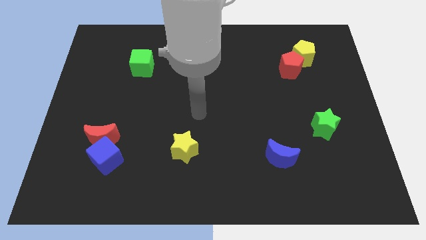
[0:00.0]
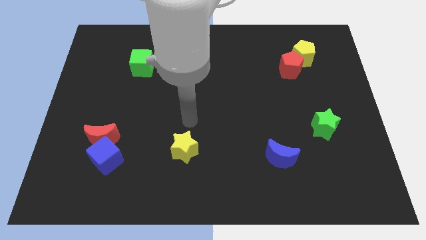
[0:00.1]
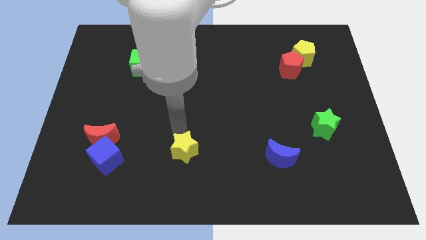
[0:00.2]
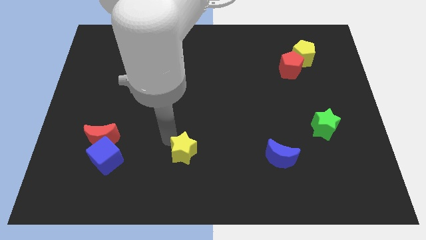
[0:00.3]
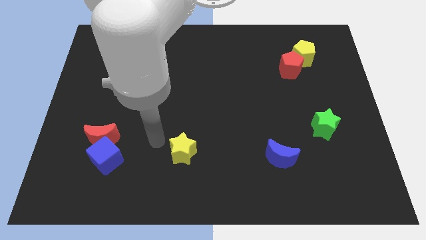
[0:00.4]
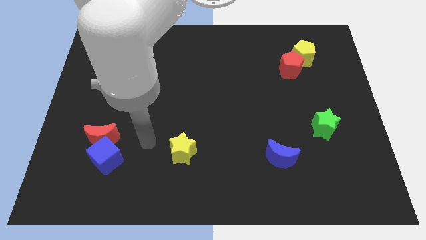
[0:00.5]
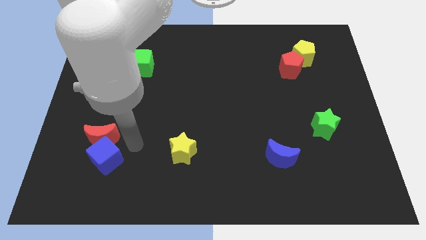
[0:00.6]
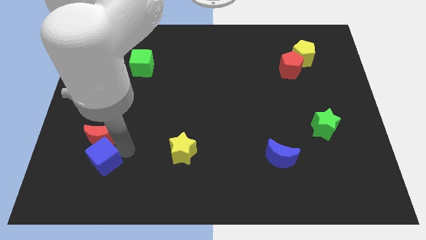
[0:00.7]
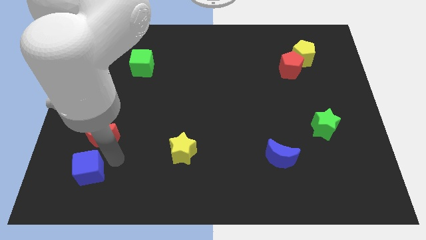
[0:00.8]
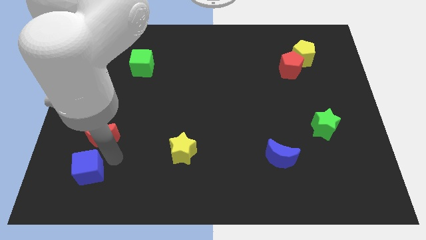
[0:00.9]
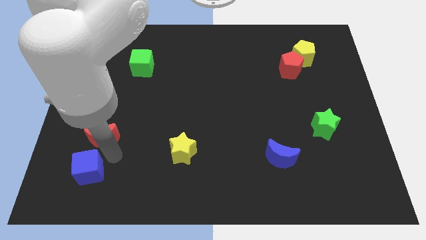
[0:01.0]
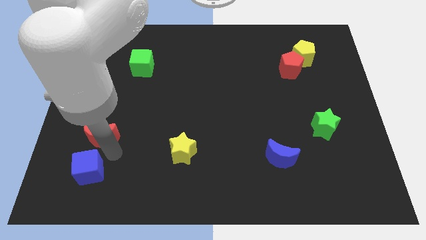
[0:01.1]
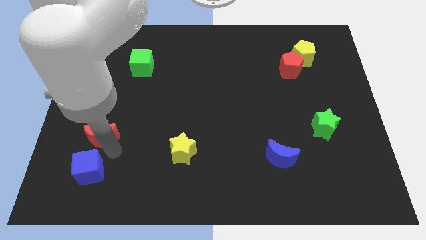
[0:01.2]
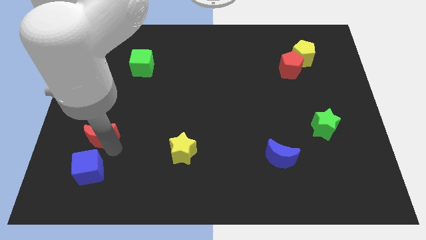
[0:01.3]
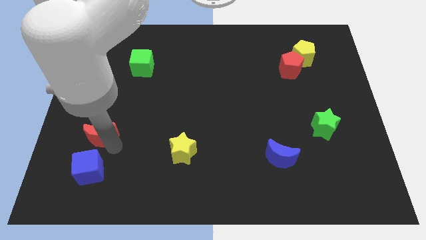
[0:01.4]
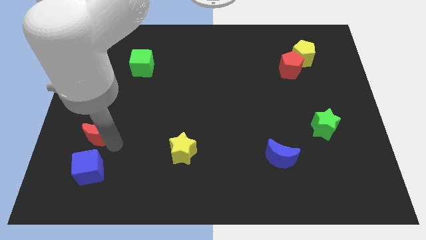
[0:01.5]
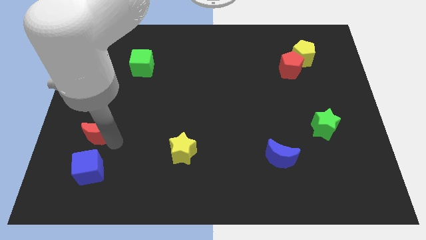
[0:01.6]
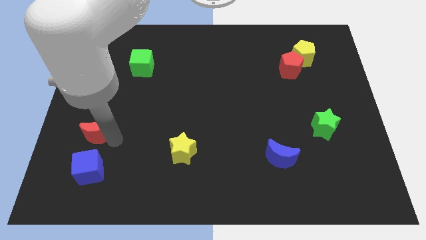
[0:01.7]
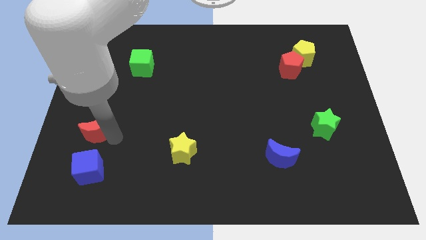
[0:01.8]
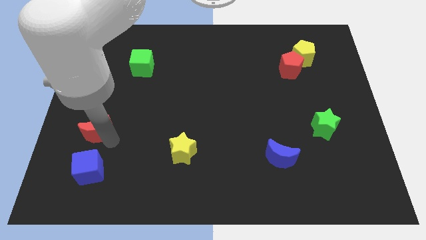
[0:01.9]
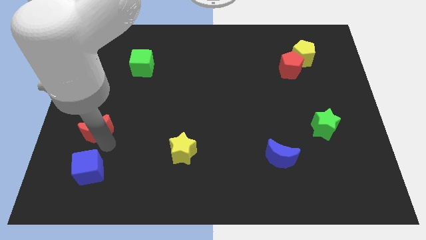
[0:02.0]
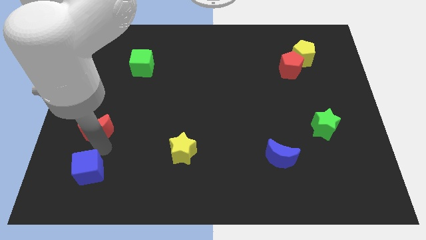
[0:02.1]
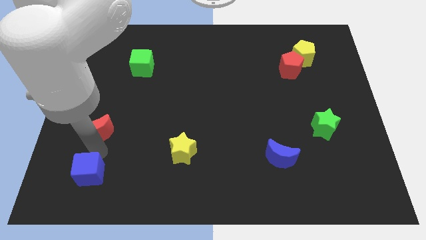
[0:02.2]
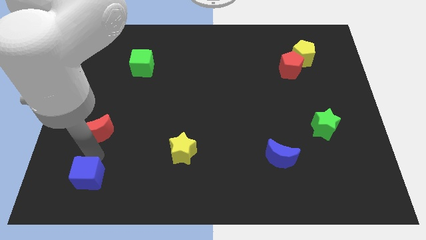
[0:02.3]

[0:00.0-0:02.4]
separate the red moon from the blue cube

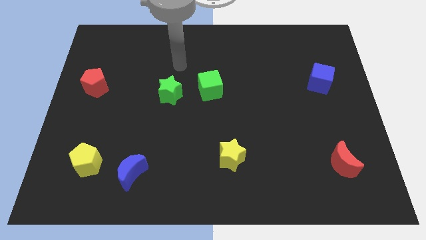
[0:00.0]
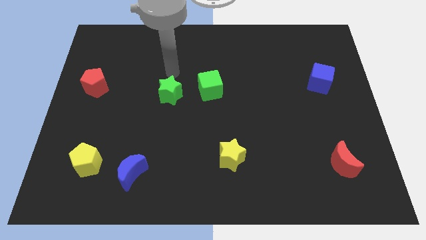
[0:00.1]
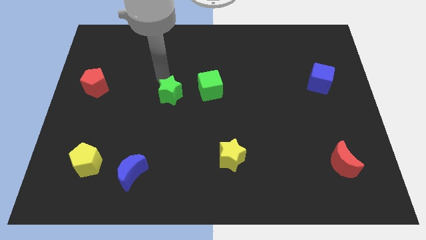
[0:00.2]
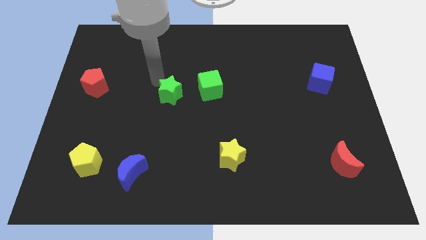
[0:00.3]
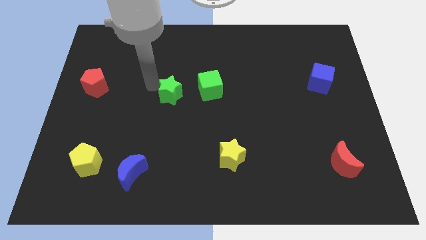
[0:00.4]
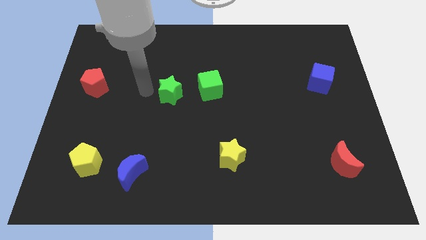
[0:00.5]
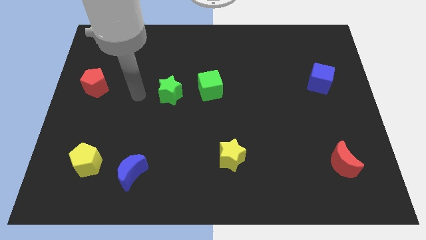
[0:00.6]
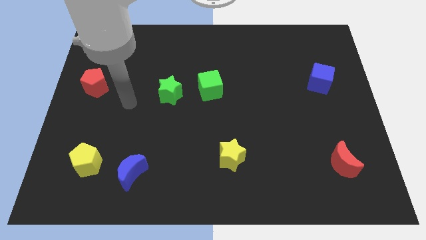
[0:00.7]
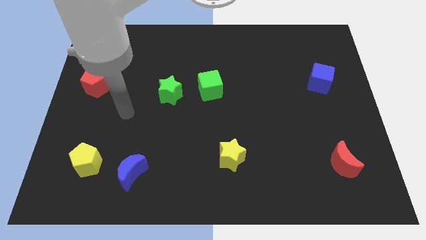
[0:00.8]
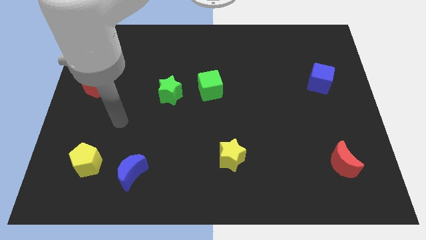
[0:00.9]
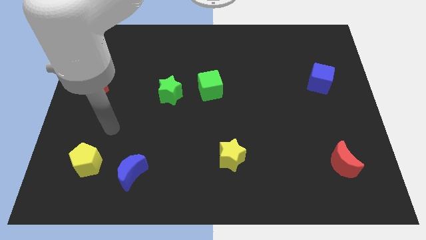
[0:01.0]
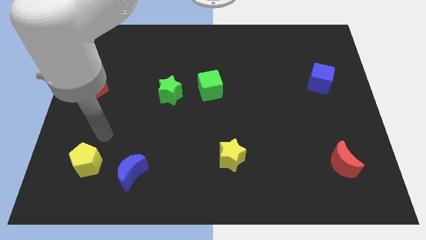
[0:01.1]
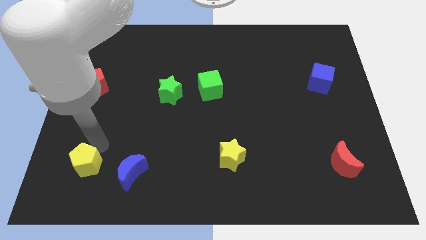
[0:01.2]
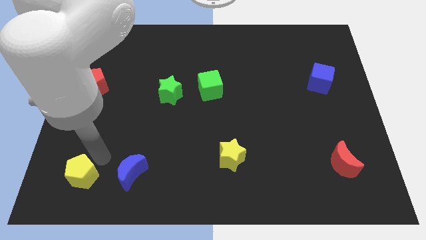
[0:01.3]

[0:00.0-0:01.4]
pull the blue moon apart from the yellow pentagon

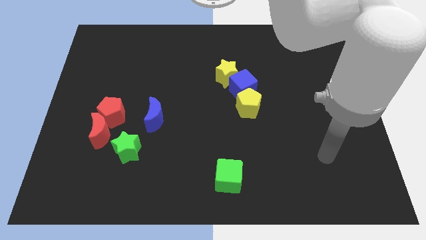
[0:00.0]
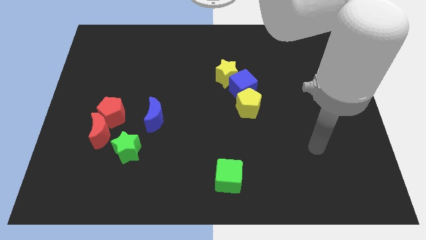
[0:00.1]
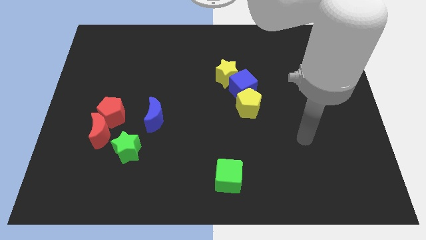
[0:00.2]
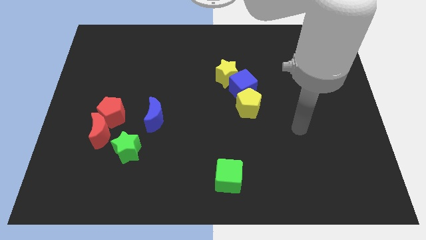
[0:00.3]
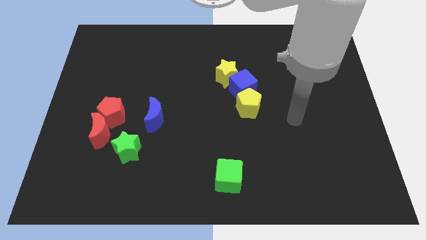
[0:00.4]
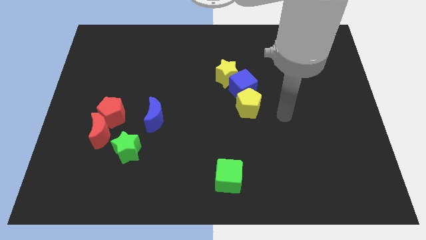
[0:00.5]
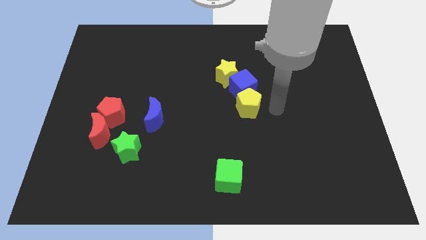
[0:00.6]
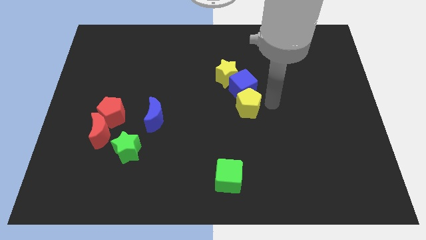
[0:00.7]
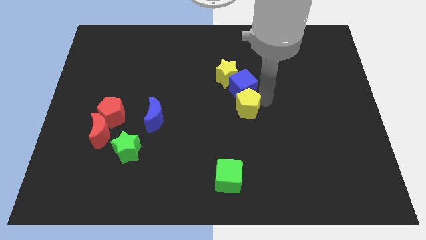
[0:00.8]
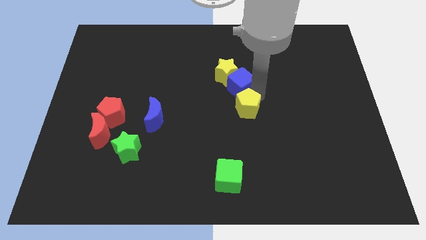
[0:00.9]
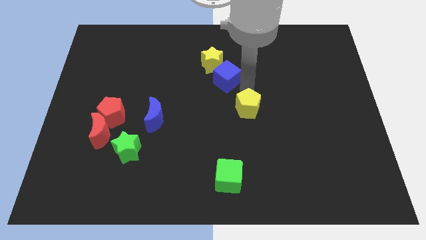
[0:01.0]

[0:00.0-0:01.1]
separate the yellow pentagon from the blue cube

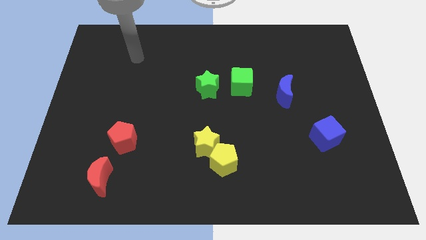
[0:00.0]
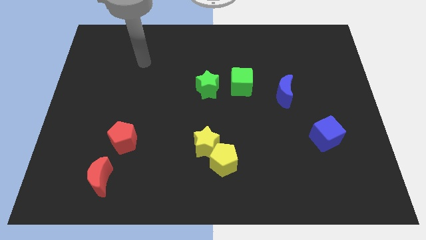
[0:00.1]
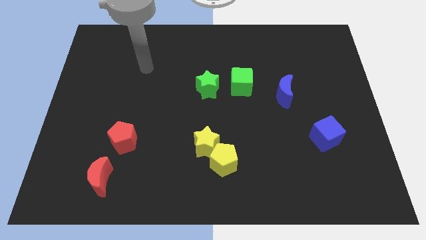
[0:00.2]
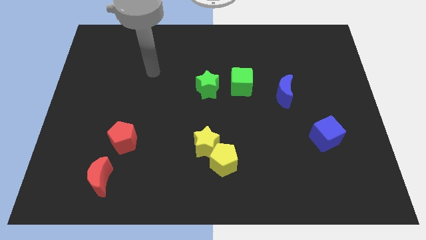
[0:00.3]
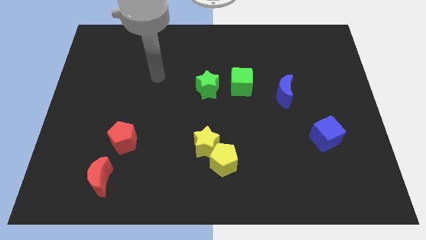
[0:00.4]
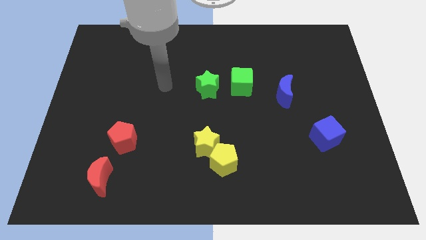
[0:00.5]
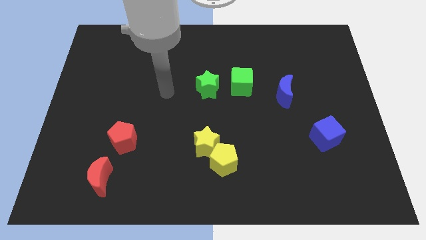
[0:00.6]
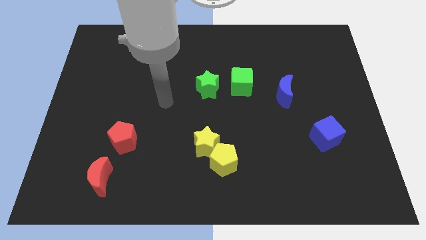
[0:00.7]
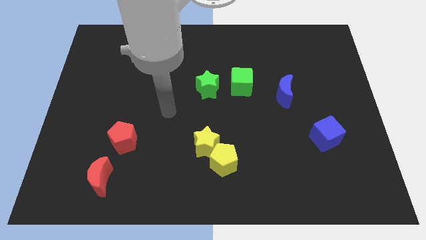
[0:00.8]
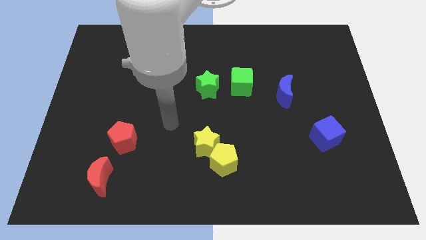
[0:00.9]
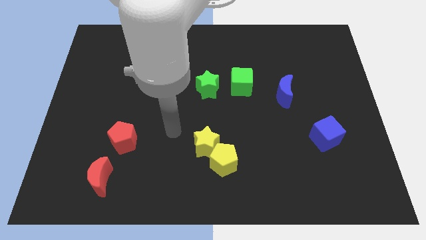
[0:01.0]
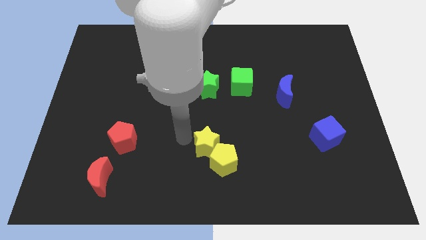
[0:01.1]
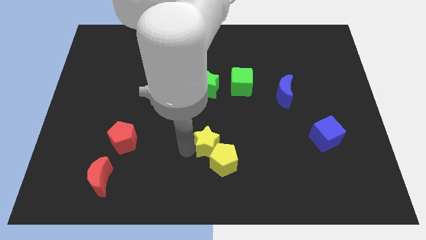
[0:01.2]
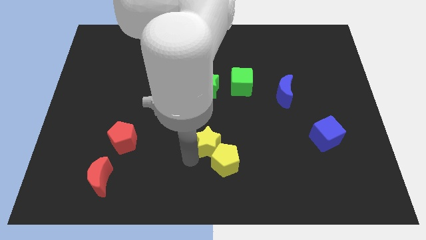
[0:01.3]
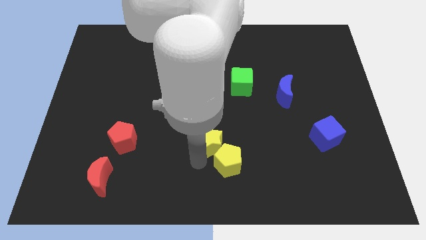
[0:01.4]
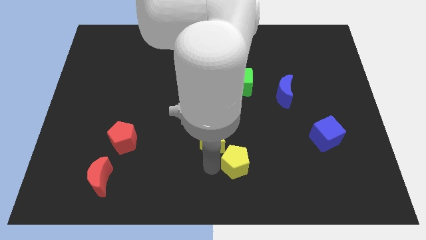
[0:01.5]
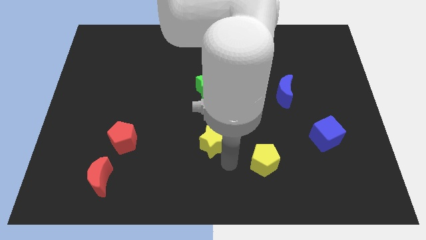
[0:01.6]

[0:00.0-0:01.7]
pull the yellow star apart from the yellow pentagon

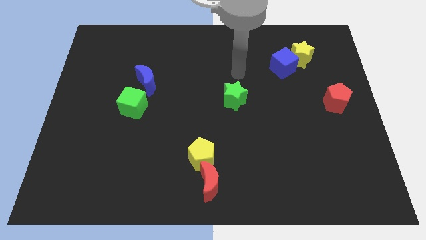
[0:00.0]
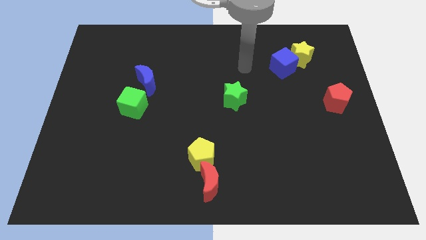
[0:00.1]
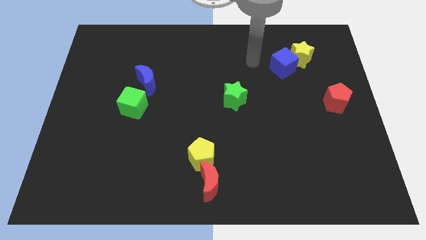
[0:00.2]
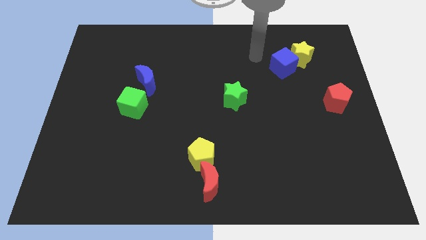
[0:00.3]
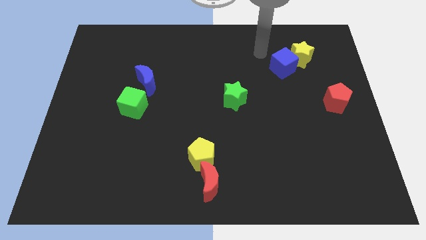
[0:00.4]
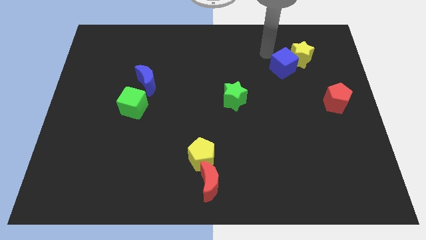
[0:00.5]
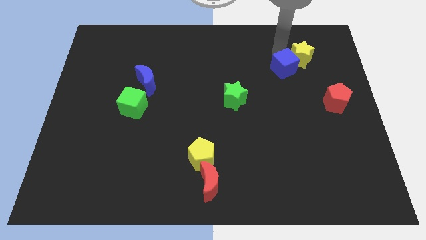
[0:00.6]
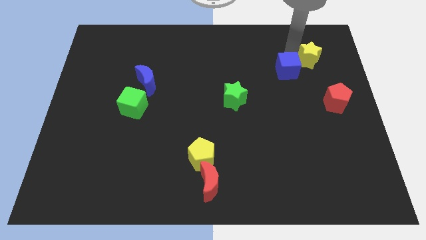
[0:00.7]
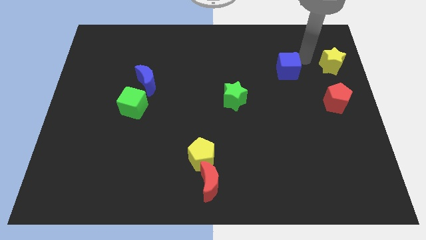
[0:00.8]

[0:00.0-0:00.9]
separate the blue cube from the yellow star

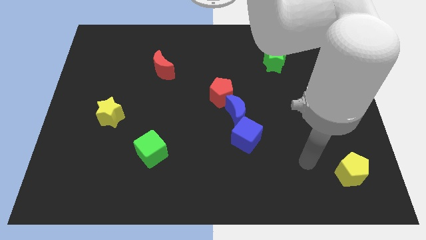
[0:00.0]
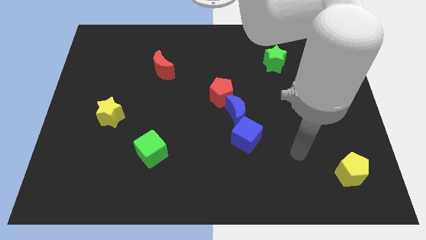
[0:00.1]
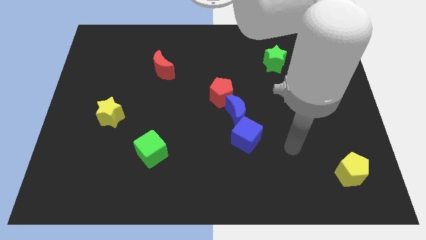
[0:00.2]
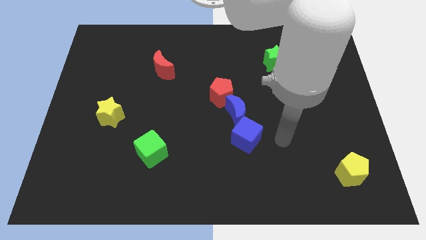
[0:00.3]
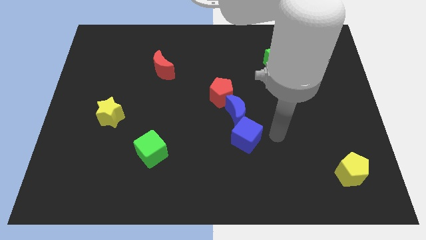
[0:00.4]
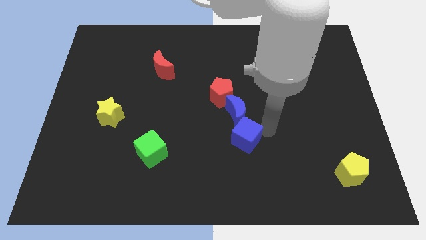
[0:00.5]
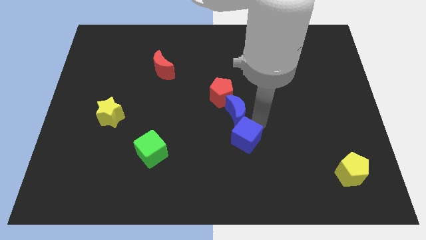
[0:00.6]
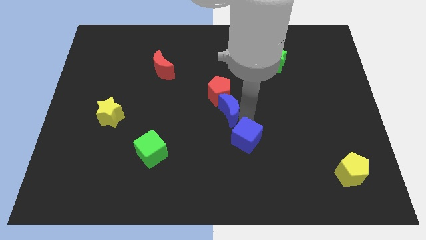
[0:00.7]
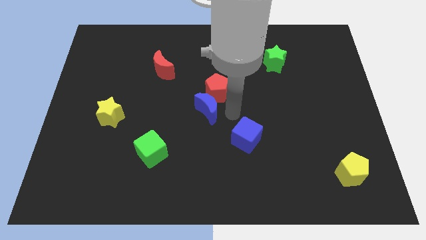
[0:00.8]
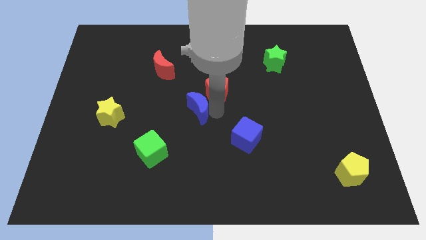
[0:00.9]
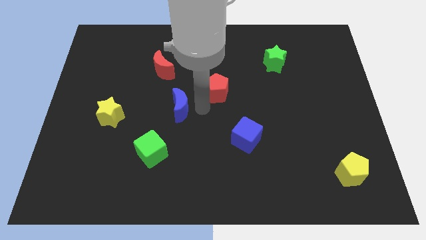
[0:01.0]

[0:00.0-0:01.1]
pull the red pentagon apart from the blue moon

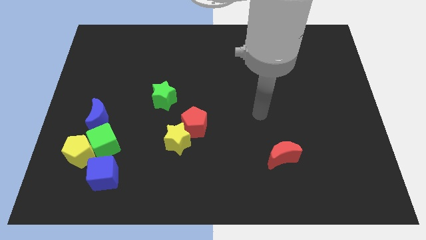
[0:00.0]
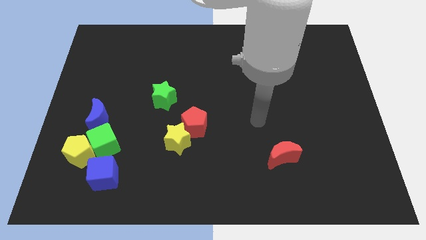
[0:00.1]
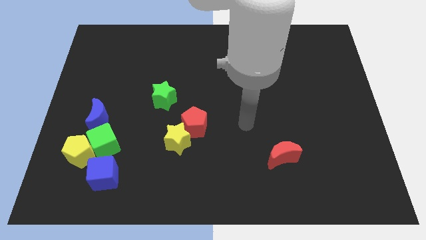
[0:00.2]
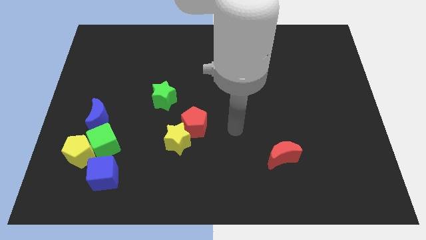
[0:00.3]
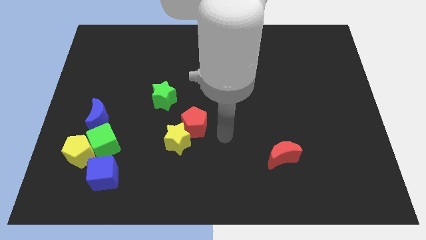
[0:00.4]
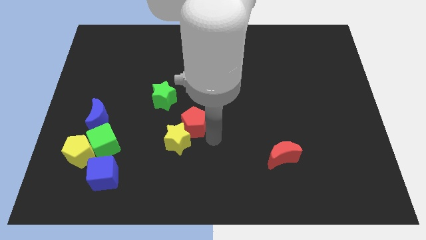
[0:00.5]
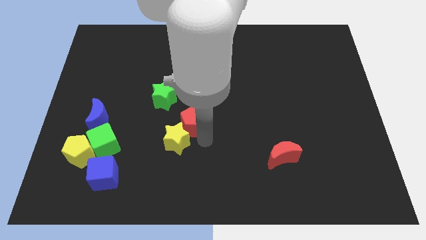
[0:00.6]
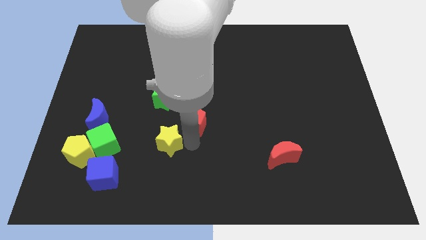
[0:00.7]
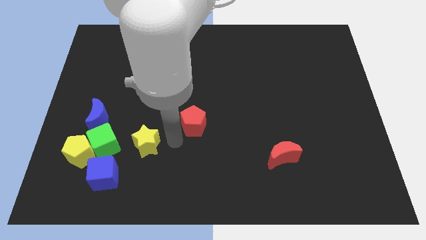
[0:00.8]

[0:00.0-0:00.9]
separate the red pentagon from the yellow star
